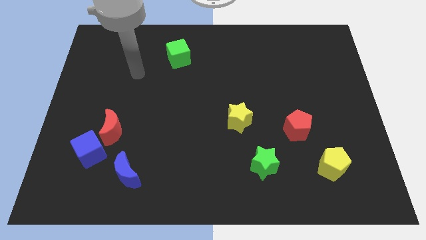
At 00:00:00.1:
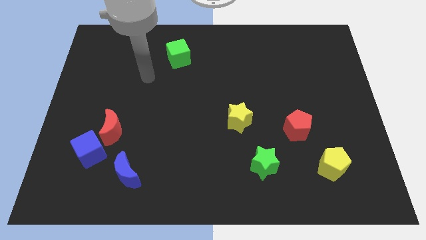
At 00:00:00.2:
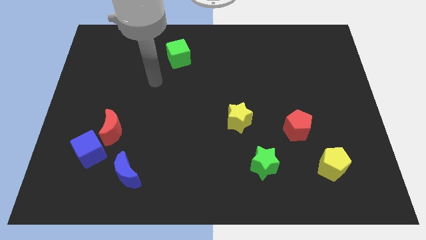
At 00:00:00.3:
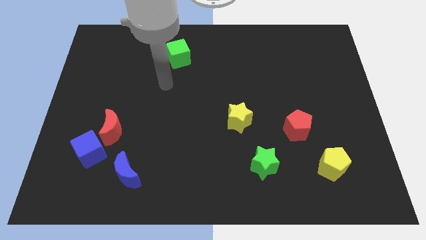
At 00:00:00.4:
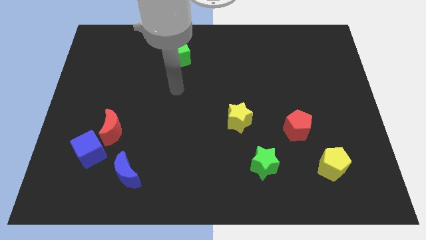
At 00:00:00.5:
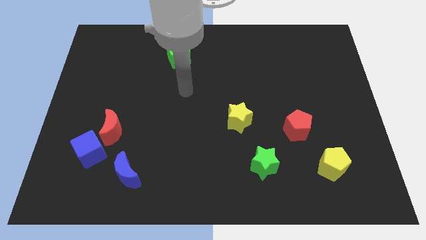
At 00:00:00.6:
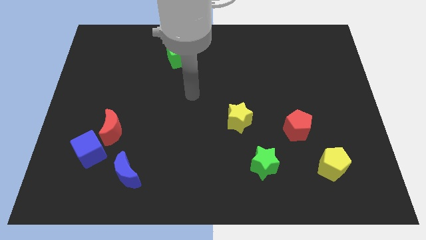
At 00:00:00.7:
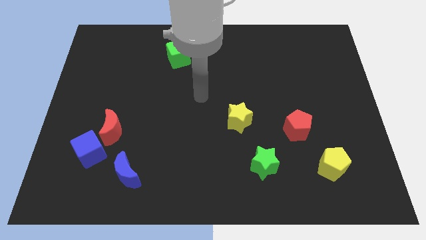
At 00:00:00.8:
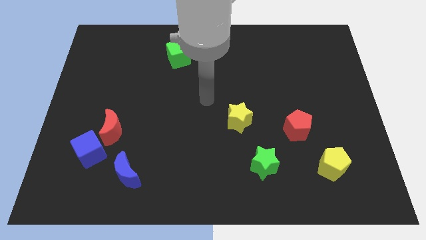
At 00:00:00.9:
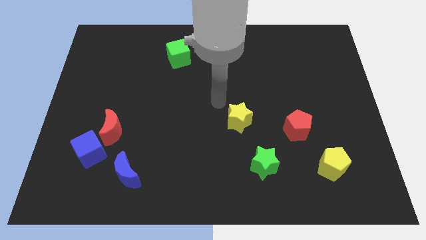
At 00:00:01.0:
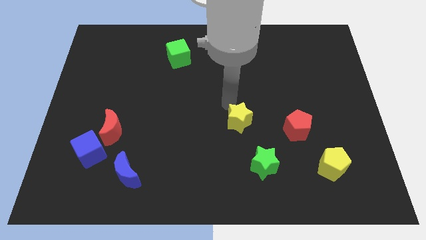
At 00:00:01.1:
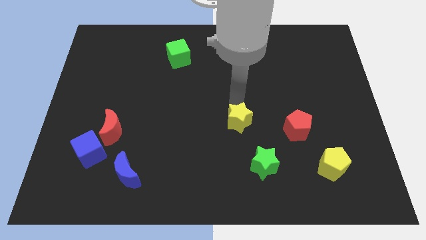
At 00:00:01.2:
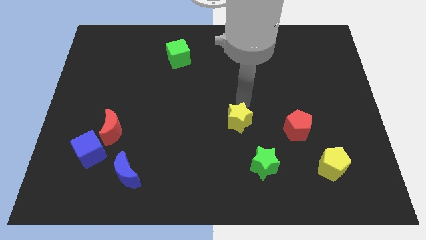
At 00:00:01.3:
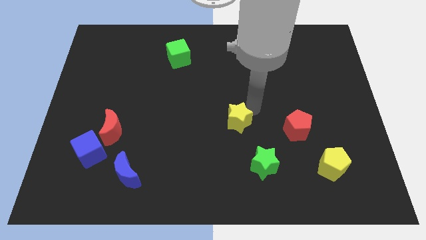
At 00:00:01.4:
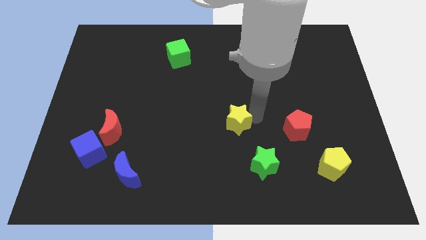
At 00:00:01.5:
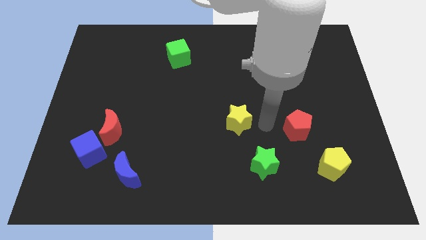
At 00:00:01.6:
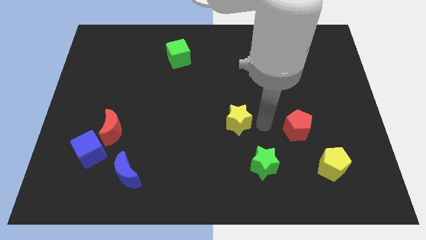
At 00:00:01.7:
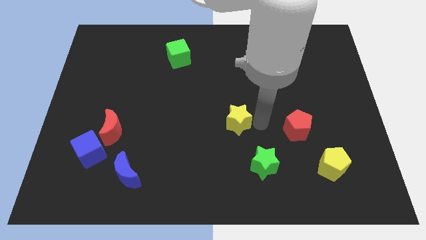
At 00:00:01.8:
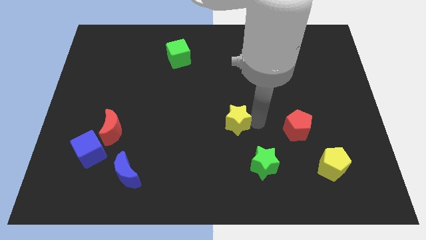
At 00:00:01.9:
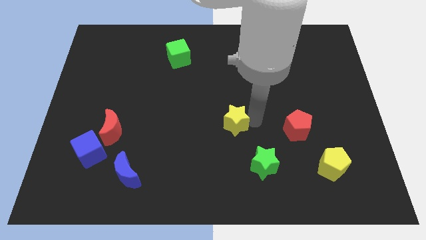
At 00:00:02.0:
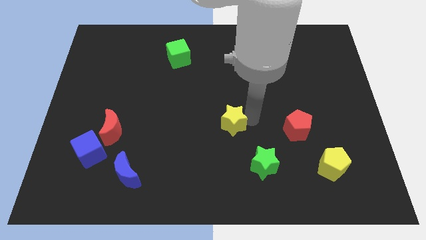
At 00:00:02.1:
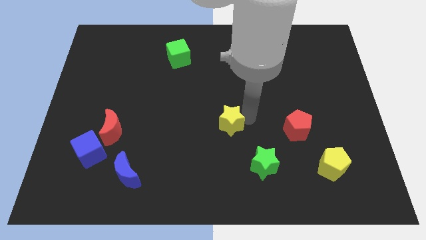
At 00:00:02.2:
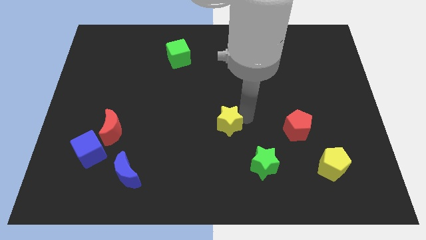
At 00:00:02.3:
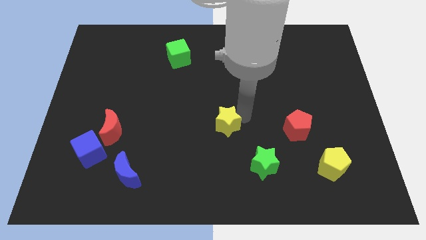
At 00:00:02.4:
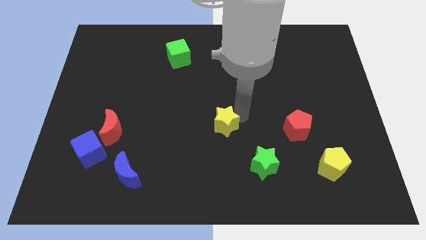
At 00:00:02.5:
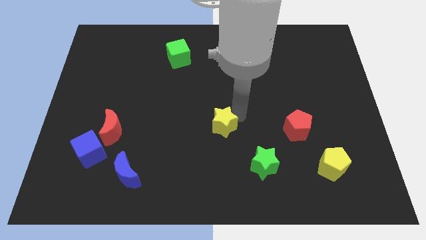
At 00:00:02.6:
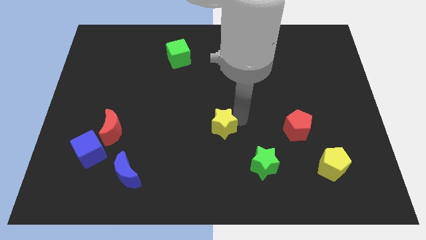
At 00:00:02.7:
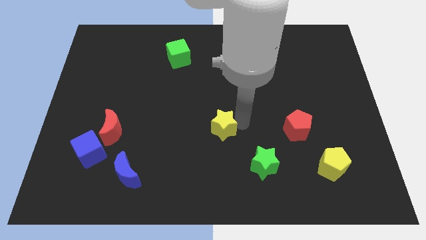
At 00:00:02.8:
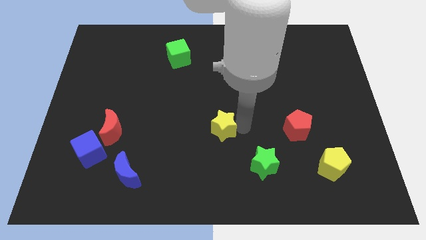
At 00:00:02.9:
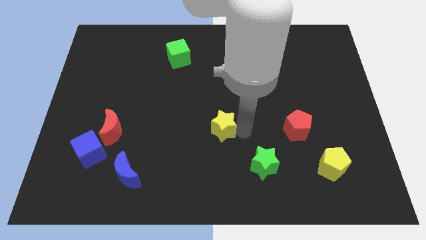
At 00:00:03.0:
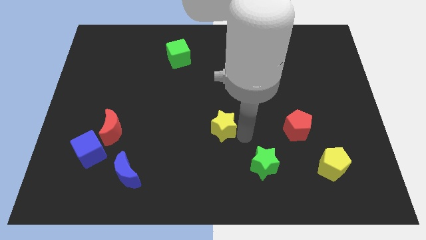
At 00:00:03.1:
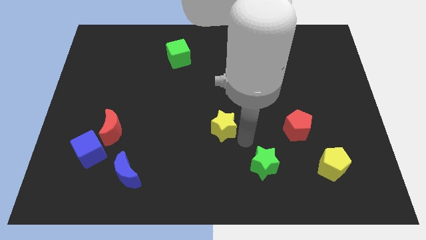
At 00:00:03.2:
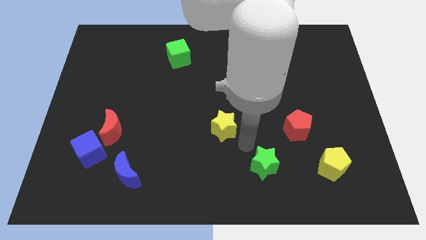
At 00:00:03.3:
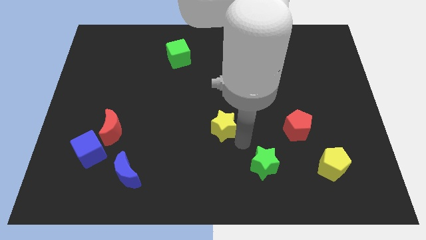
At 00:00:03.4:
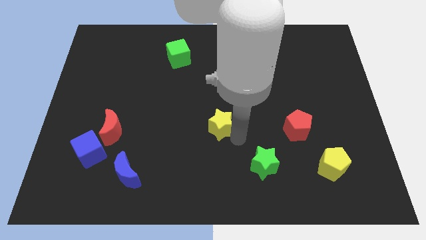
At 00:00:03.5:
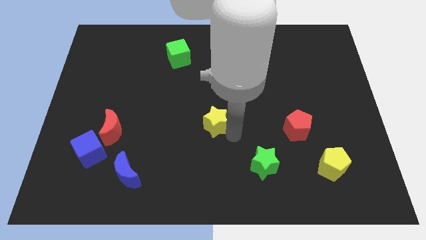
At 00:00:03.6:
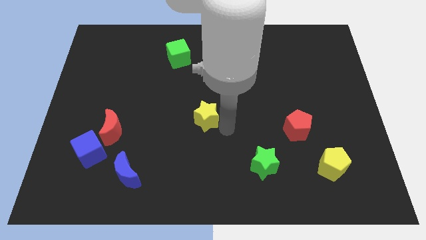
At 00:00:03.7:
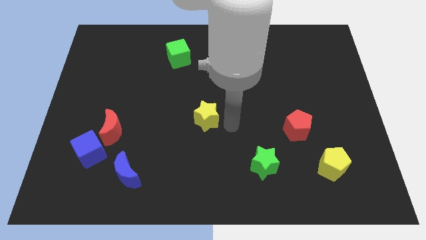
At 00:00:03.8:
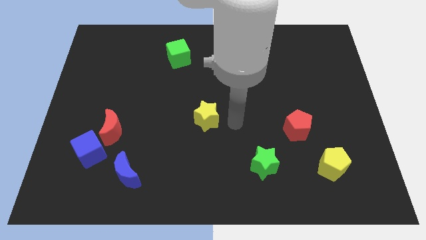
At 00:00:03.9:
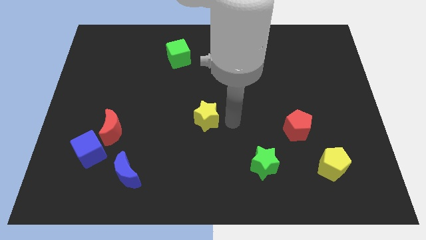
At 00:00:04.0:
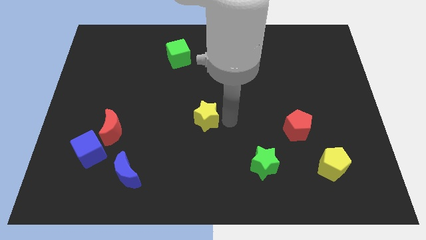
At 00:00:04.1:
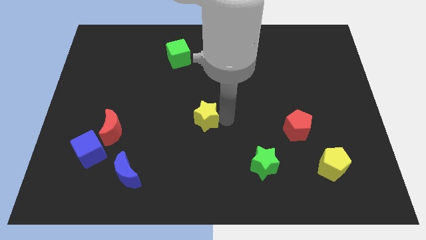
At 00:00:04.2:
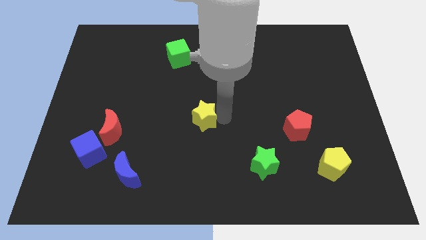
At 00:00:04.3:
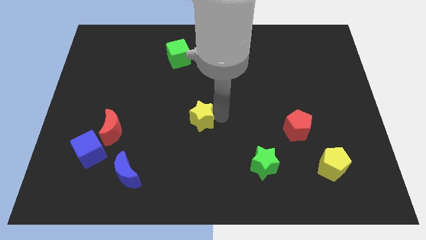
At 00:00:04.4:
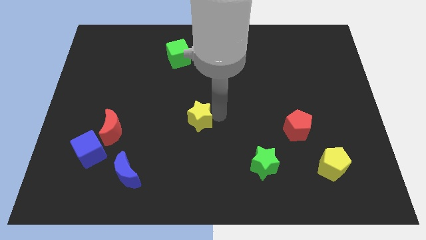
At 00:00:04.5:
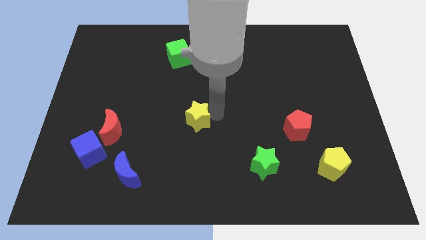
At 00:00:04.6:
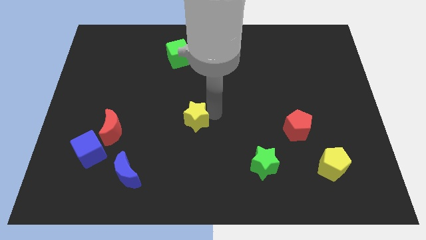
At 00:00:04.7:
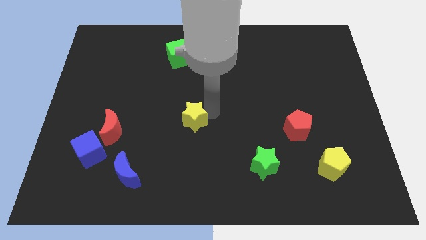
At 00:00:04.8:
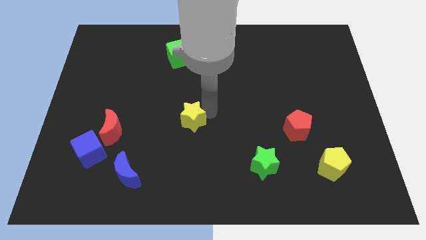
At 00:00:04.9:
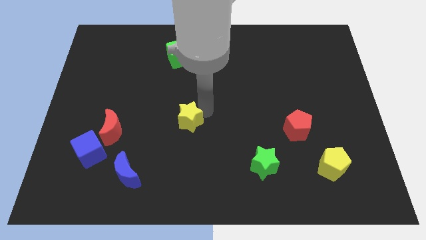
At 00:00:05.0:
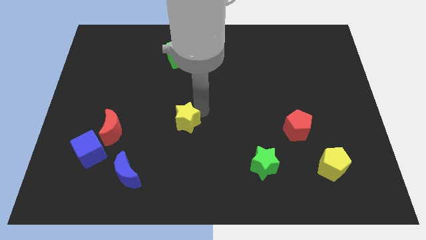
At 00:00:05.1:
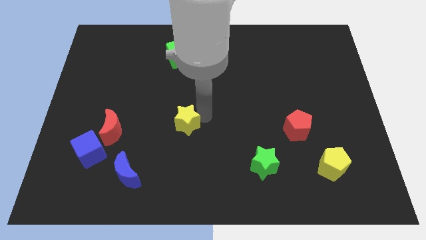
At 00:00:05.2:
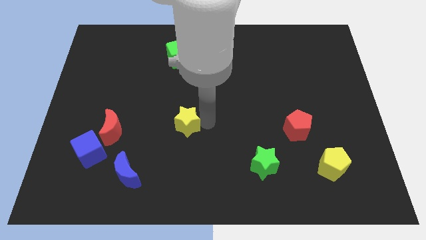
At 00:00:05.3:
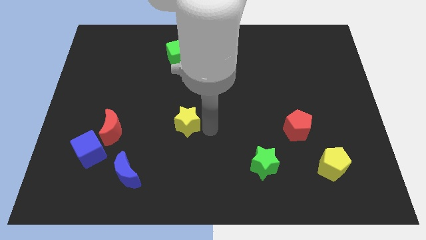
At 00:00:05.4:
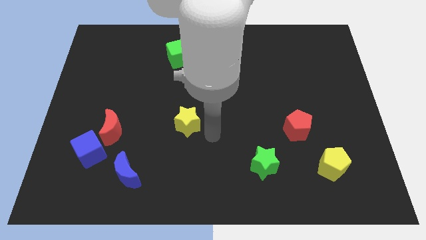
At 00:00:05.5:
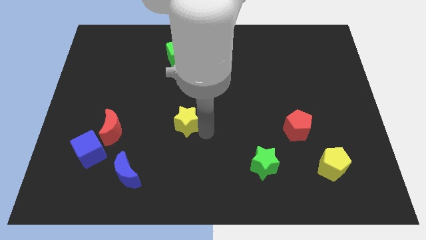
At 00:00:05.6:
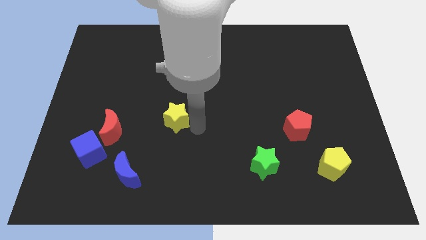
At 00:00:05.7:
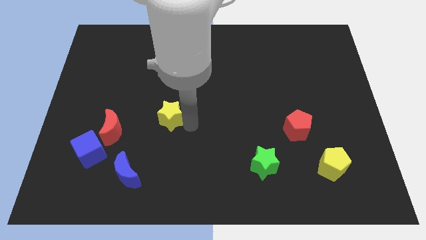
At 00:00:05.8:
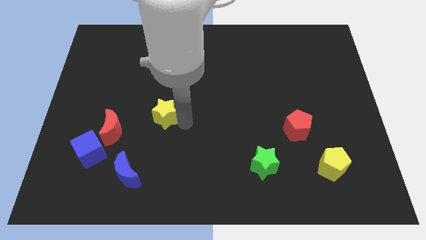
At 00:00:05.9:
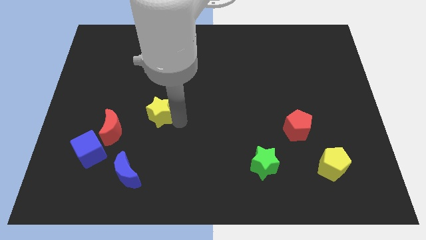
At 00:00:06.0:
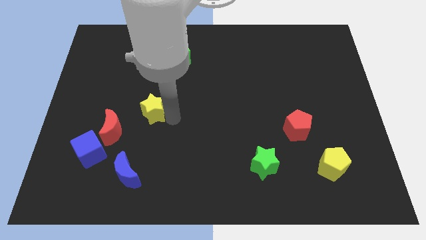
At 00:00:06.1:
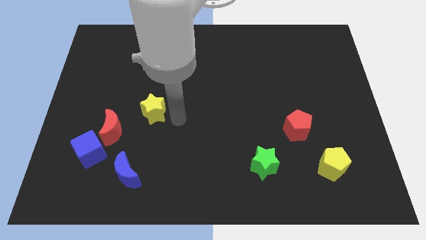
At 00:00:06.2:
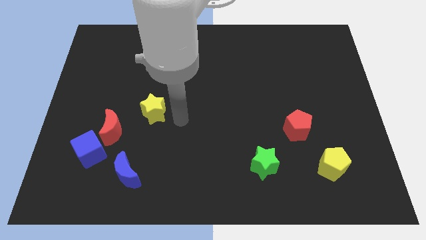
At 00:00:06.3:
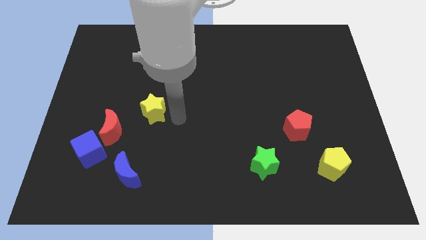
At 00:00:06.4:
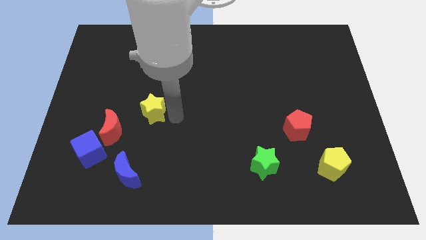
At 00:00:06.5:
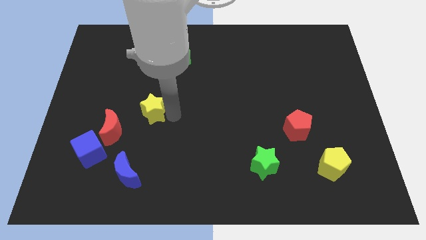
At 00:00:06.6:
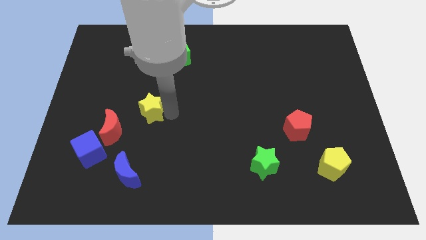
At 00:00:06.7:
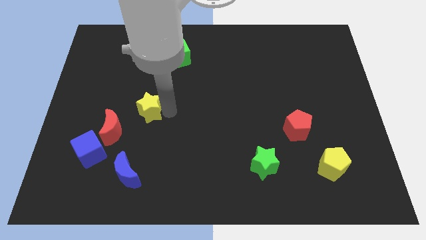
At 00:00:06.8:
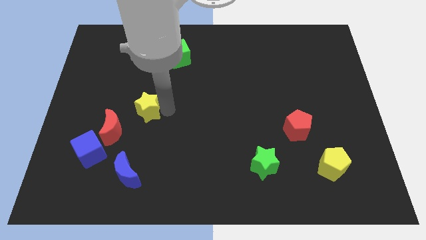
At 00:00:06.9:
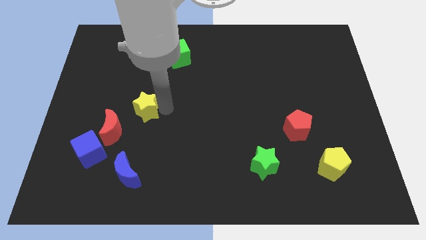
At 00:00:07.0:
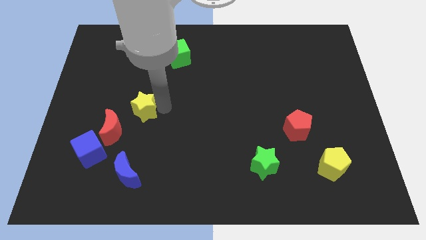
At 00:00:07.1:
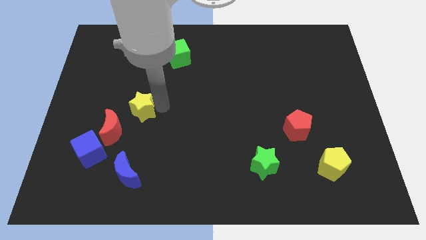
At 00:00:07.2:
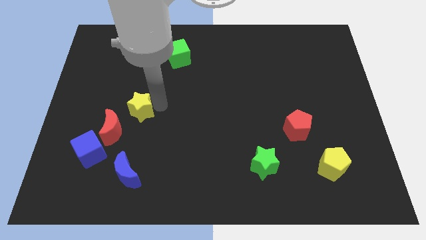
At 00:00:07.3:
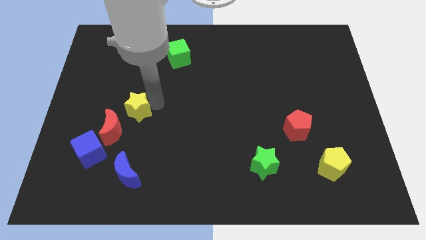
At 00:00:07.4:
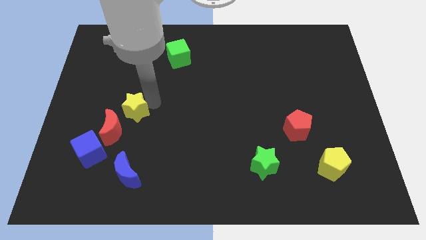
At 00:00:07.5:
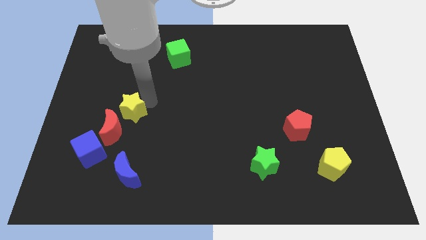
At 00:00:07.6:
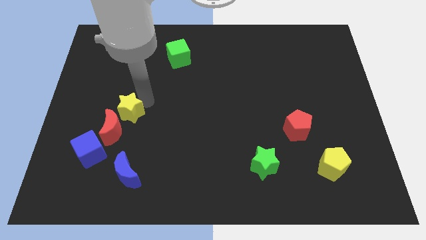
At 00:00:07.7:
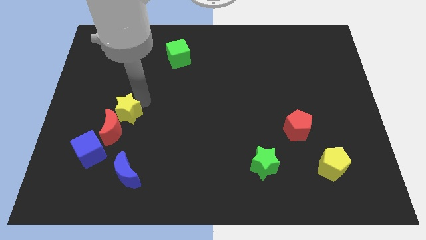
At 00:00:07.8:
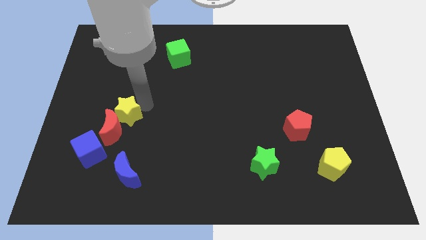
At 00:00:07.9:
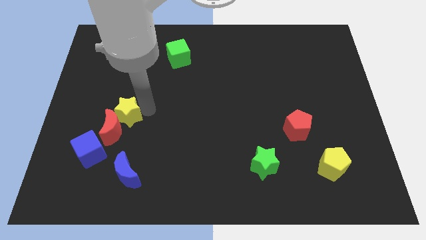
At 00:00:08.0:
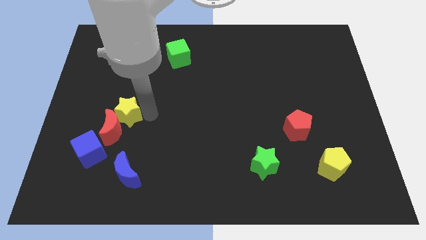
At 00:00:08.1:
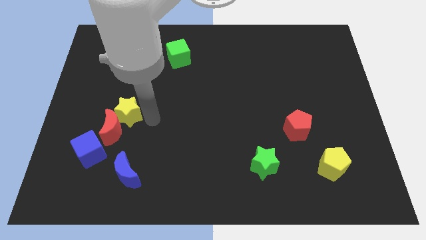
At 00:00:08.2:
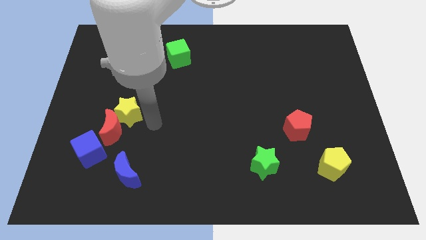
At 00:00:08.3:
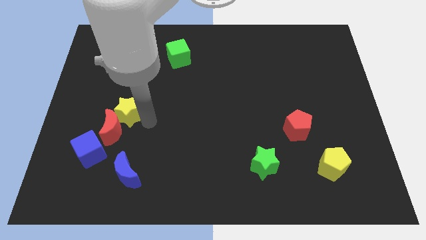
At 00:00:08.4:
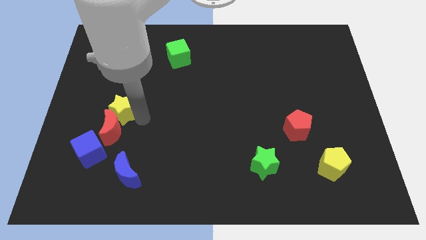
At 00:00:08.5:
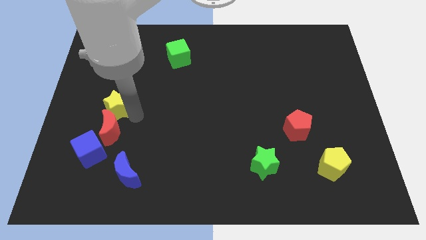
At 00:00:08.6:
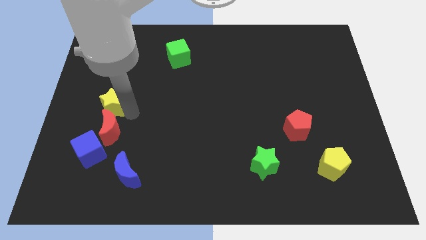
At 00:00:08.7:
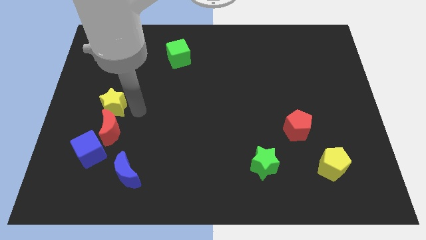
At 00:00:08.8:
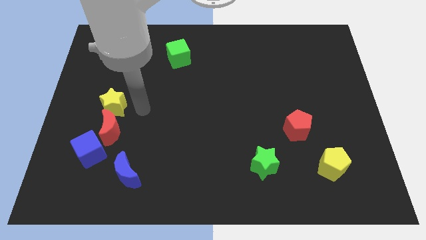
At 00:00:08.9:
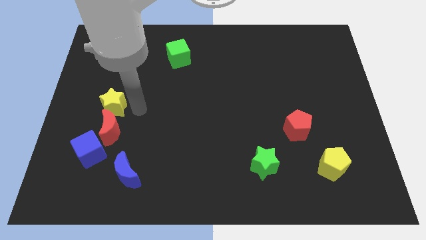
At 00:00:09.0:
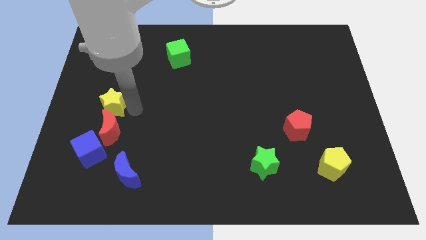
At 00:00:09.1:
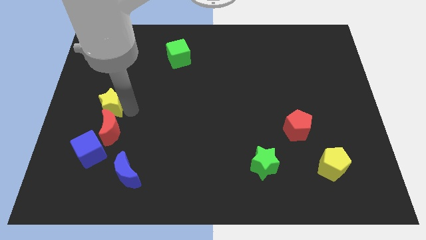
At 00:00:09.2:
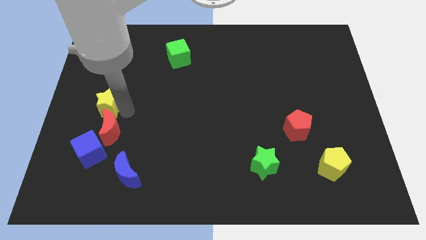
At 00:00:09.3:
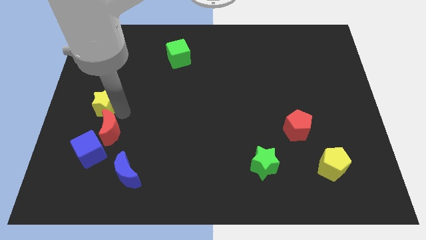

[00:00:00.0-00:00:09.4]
push the yellow star to the left side
